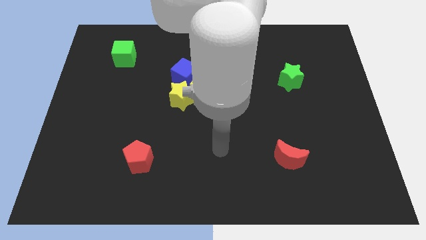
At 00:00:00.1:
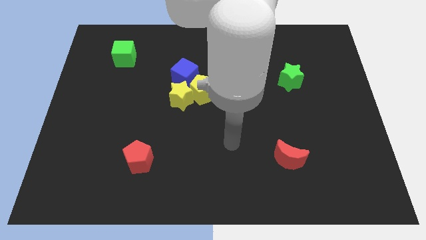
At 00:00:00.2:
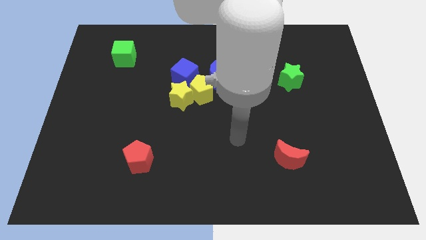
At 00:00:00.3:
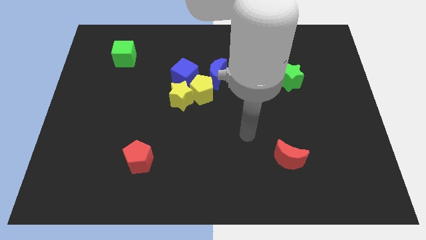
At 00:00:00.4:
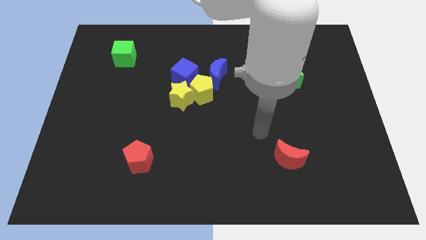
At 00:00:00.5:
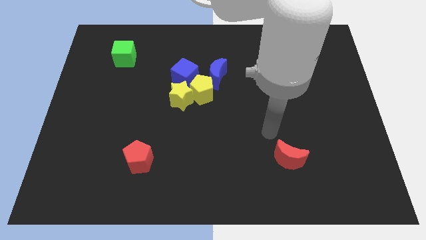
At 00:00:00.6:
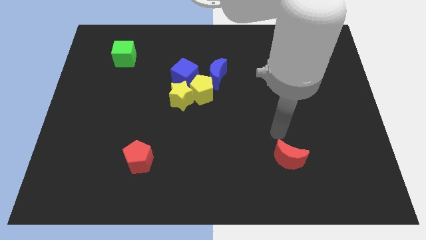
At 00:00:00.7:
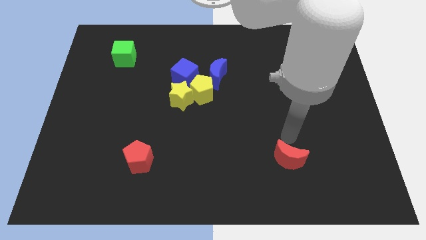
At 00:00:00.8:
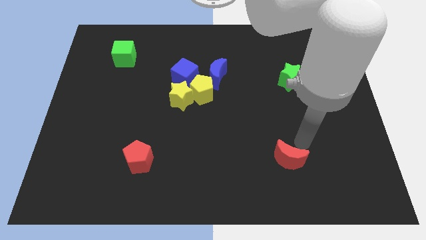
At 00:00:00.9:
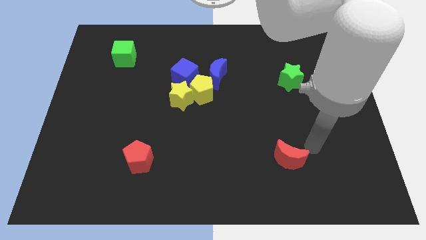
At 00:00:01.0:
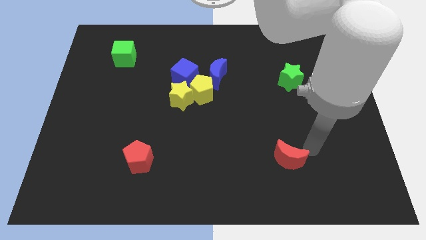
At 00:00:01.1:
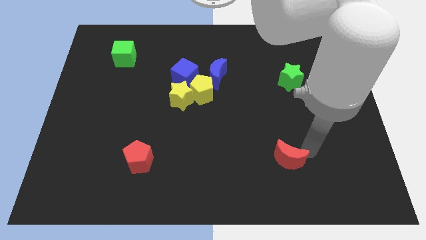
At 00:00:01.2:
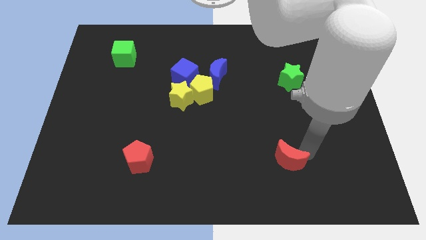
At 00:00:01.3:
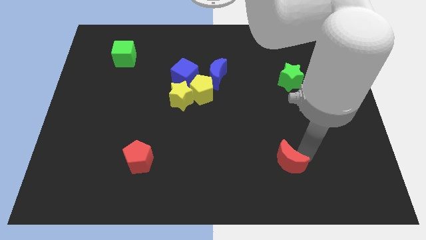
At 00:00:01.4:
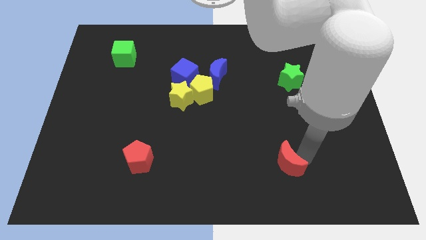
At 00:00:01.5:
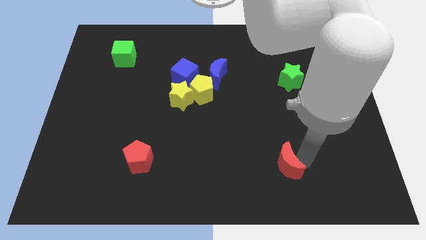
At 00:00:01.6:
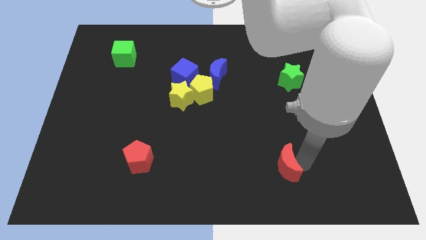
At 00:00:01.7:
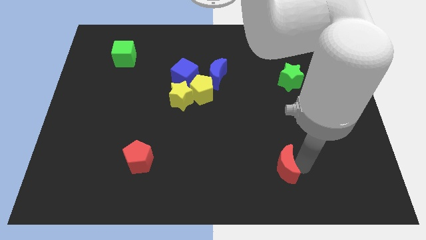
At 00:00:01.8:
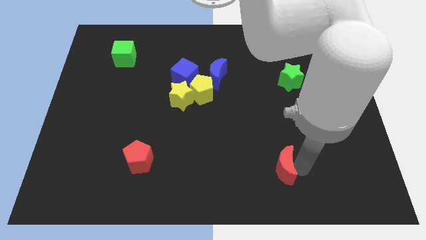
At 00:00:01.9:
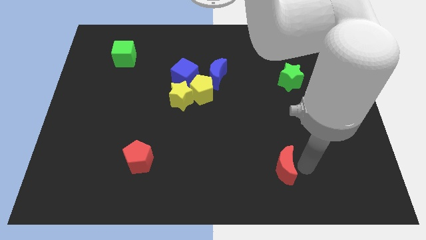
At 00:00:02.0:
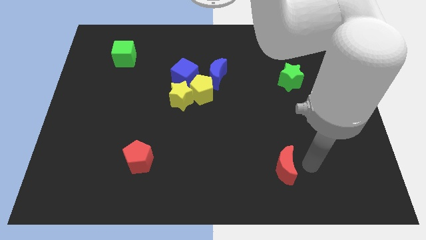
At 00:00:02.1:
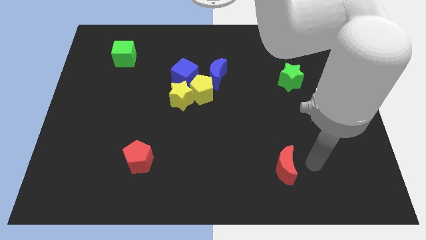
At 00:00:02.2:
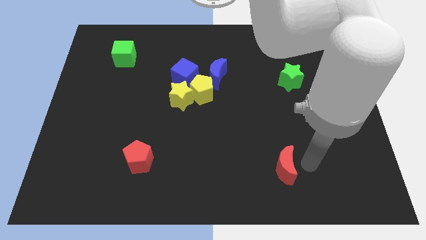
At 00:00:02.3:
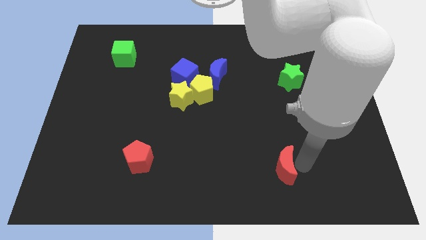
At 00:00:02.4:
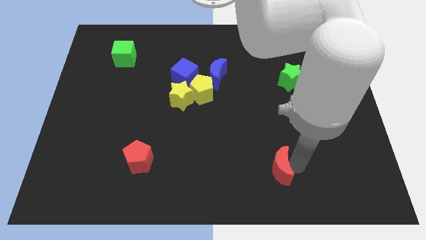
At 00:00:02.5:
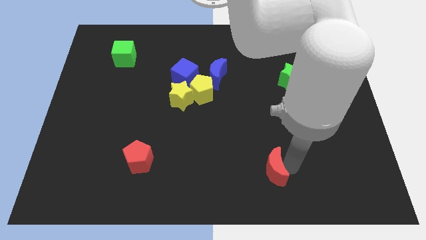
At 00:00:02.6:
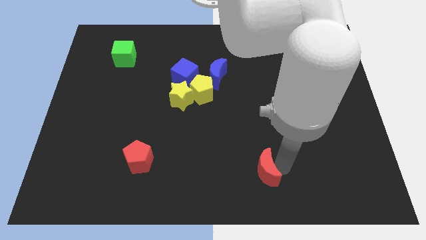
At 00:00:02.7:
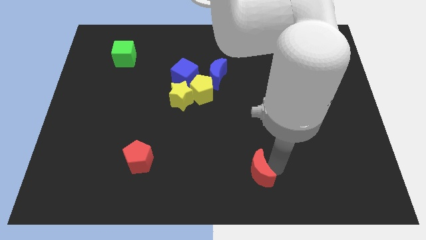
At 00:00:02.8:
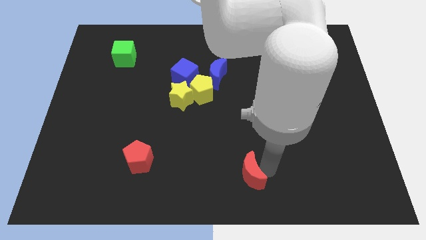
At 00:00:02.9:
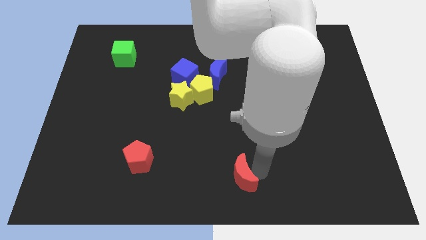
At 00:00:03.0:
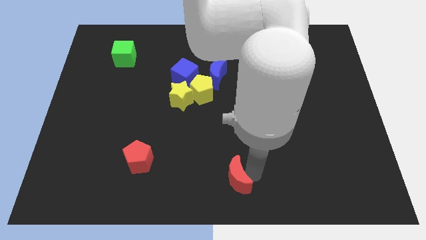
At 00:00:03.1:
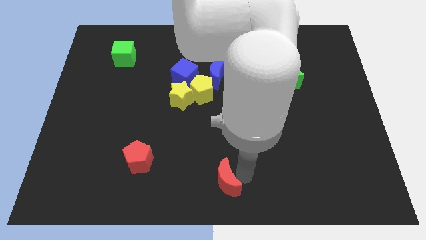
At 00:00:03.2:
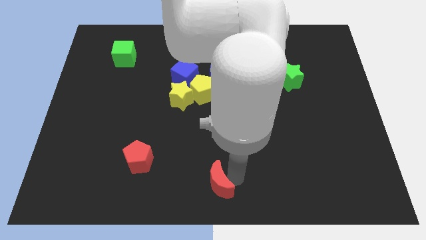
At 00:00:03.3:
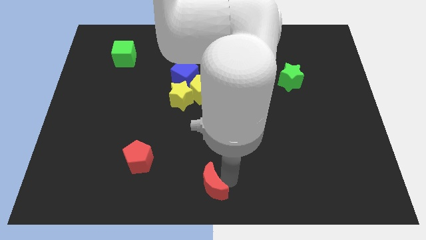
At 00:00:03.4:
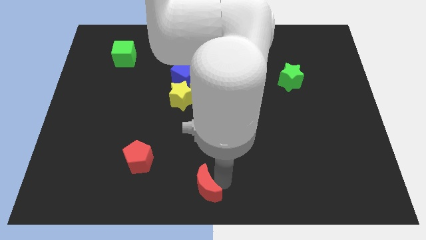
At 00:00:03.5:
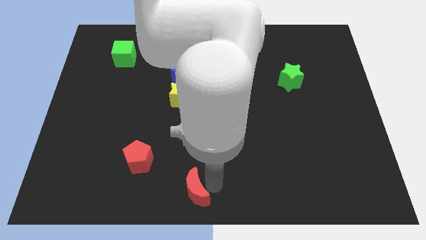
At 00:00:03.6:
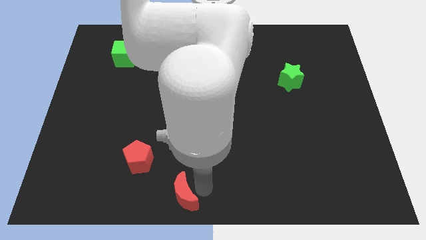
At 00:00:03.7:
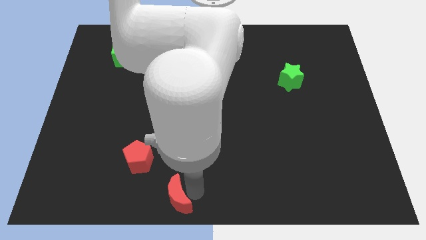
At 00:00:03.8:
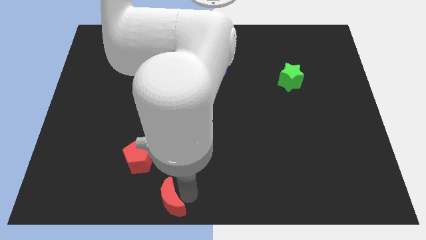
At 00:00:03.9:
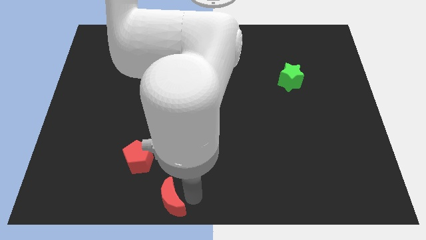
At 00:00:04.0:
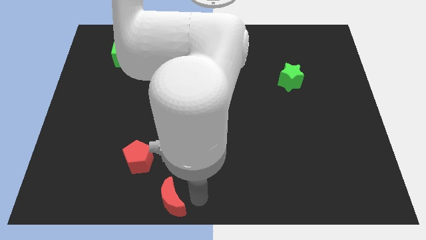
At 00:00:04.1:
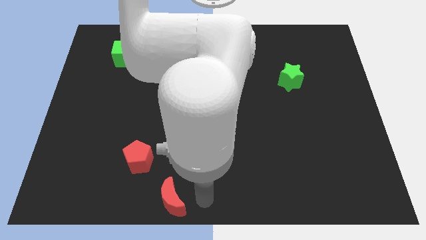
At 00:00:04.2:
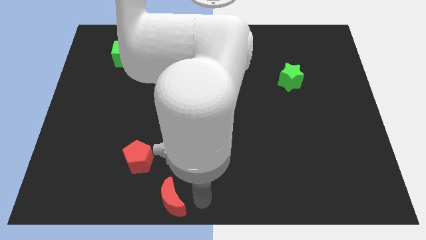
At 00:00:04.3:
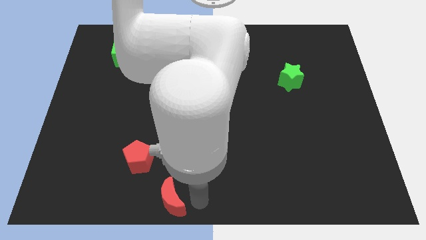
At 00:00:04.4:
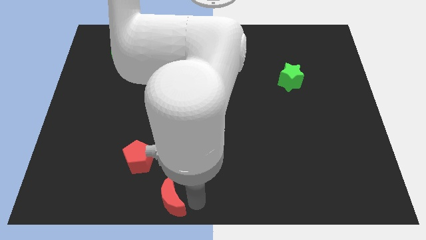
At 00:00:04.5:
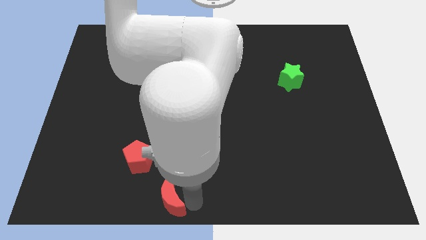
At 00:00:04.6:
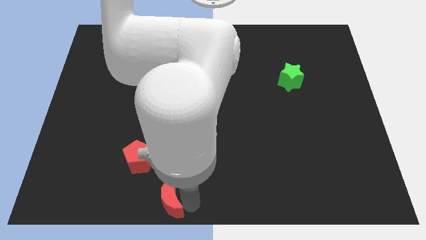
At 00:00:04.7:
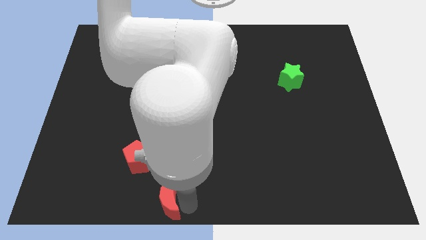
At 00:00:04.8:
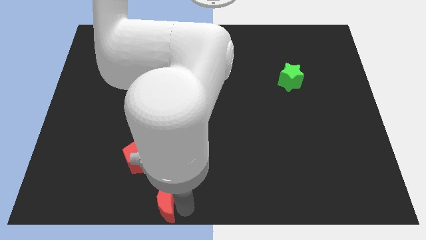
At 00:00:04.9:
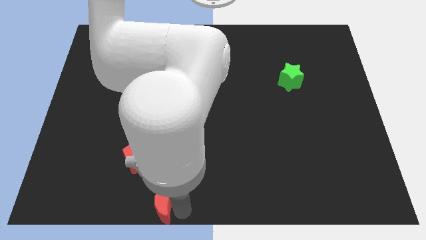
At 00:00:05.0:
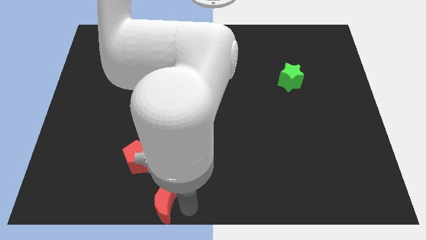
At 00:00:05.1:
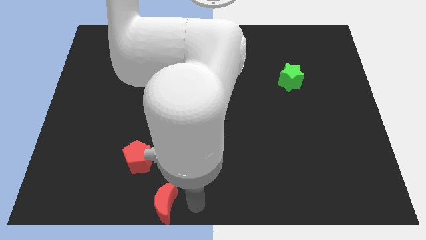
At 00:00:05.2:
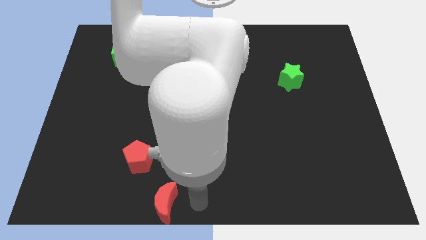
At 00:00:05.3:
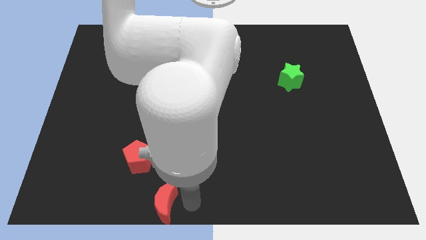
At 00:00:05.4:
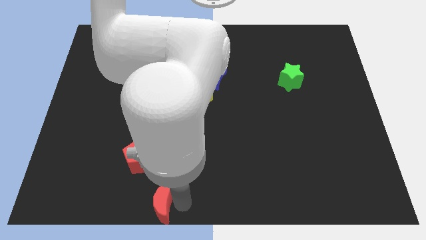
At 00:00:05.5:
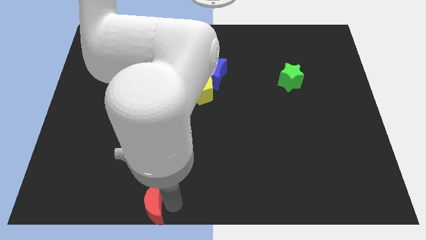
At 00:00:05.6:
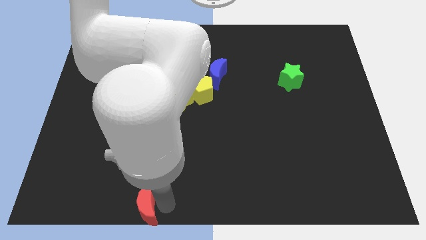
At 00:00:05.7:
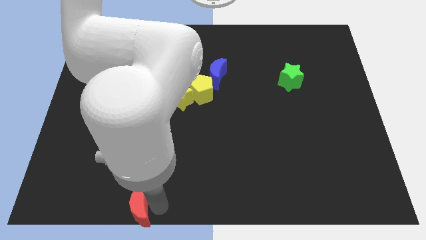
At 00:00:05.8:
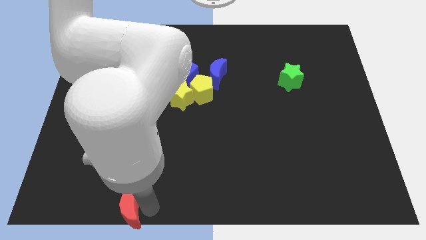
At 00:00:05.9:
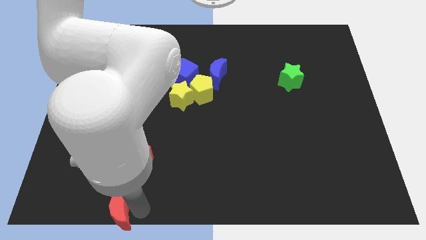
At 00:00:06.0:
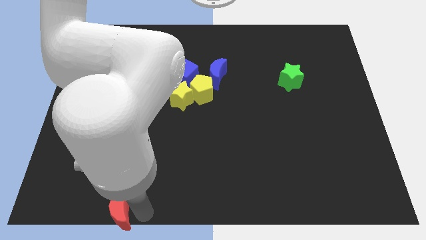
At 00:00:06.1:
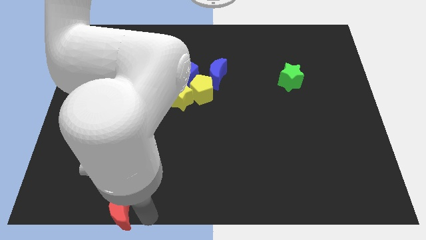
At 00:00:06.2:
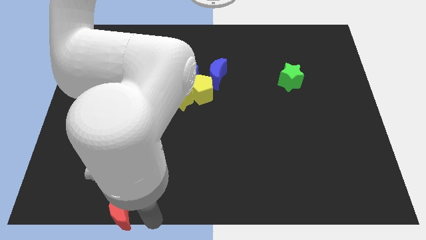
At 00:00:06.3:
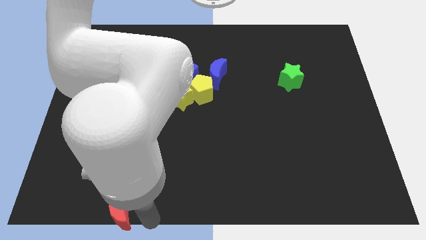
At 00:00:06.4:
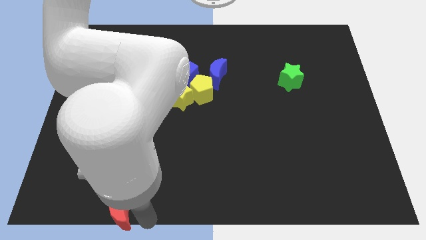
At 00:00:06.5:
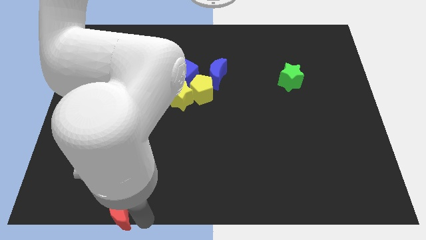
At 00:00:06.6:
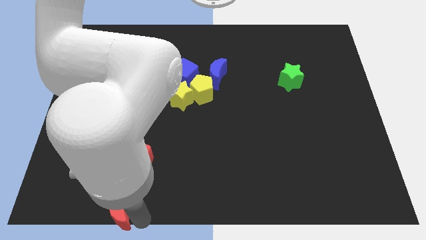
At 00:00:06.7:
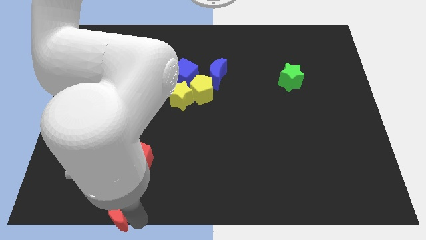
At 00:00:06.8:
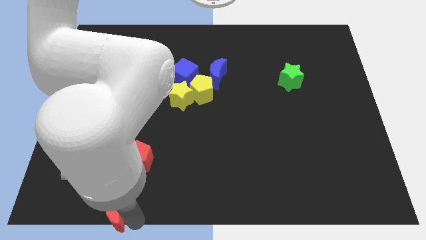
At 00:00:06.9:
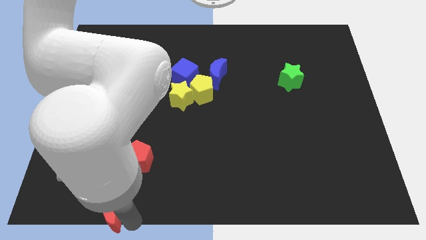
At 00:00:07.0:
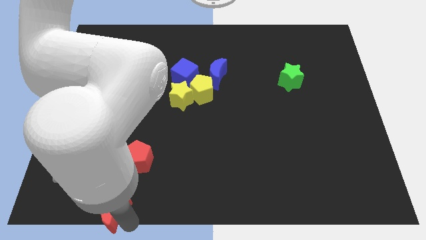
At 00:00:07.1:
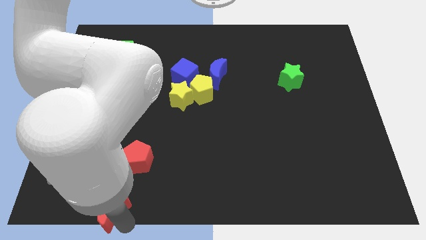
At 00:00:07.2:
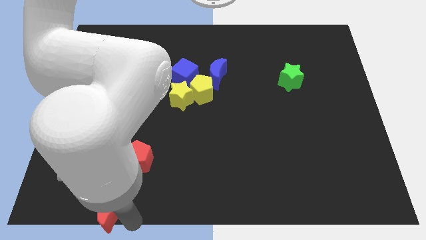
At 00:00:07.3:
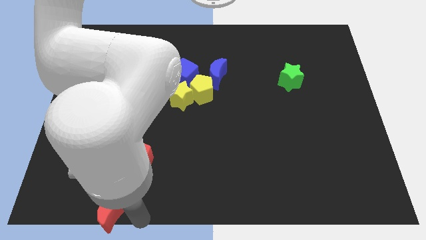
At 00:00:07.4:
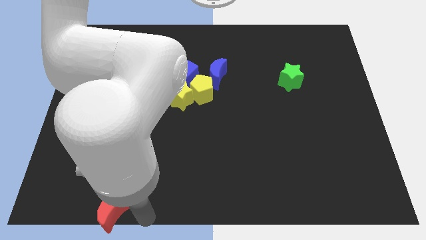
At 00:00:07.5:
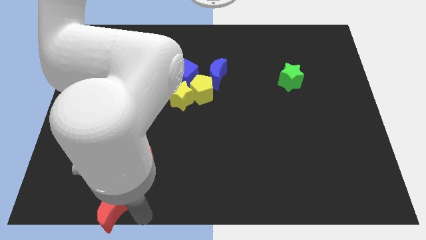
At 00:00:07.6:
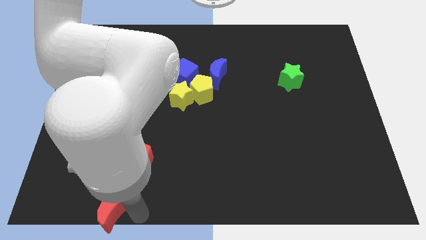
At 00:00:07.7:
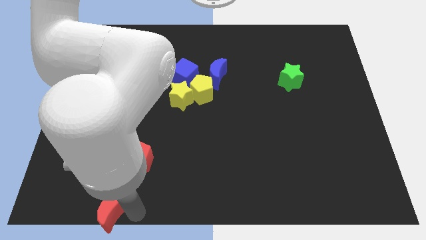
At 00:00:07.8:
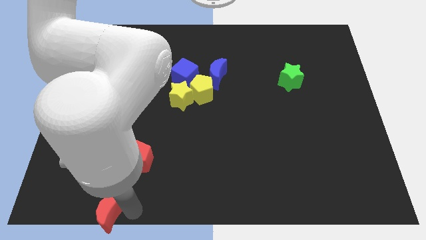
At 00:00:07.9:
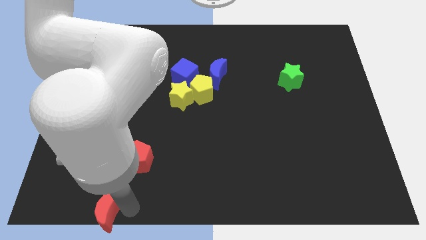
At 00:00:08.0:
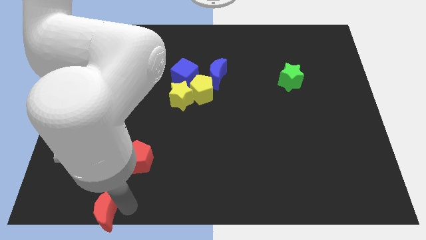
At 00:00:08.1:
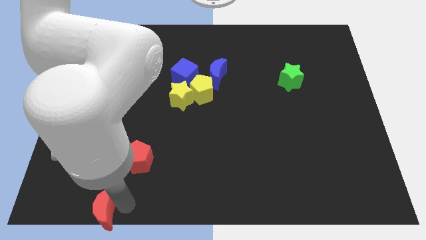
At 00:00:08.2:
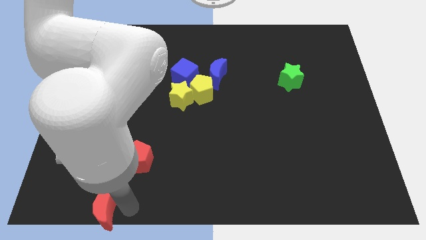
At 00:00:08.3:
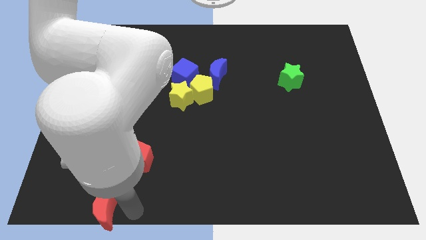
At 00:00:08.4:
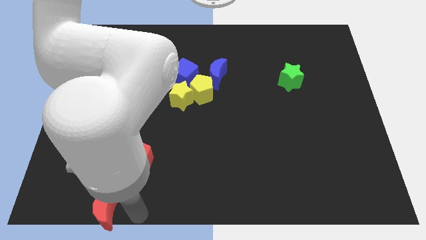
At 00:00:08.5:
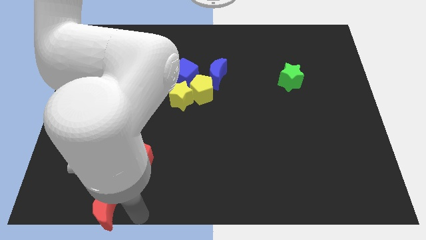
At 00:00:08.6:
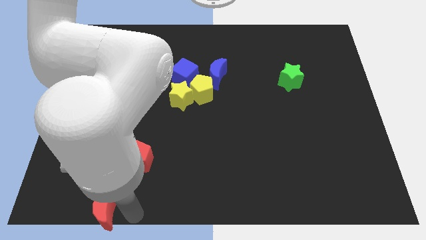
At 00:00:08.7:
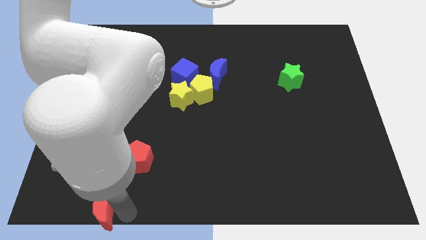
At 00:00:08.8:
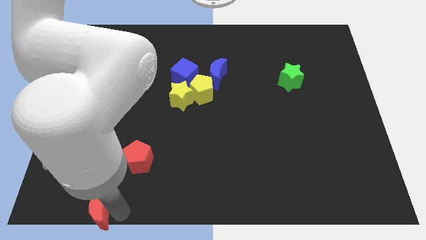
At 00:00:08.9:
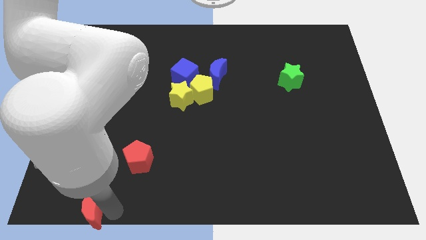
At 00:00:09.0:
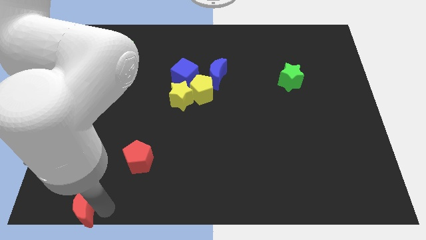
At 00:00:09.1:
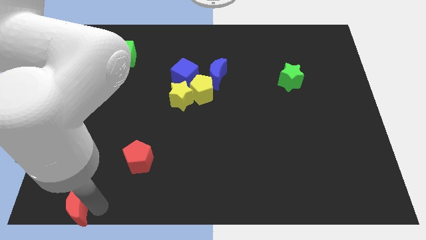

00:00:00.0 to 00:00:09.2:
push the red moon to the bottom left corner
